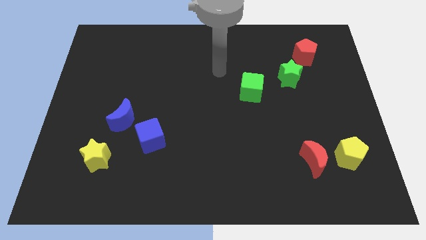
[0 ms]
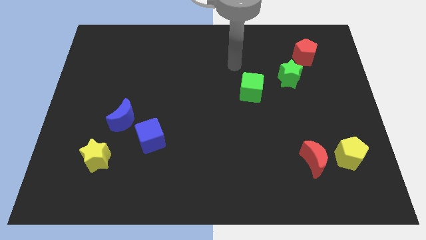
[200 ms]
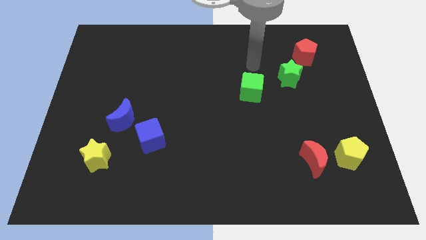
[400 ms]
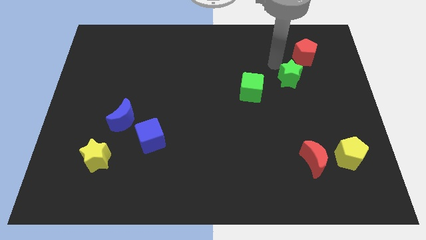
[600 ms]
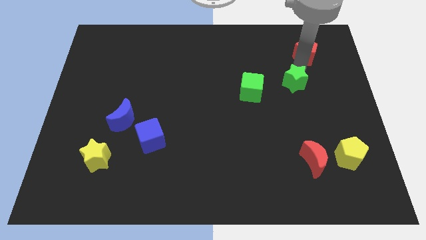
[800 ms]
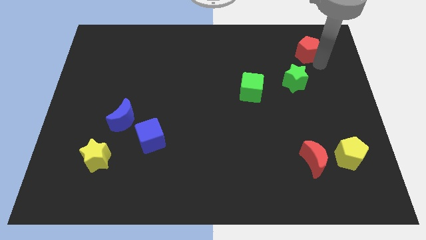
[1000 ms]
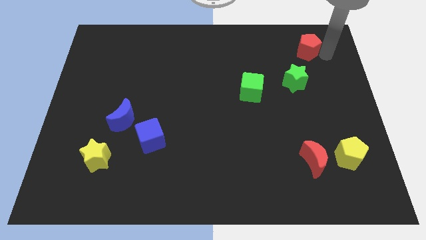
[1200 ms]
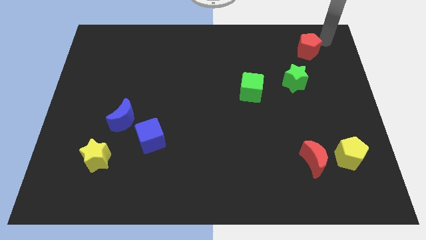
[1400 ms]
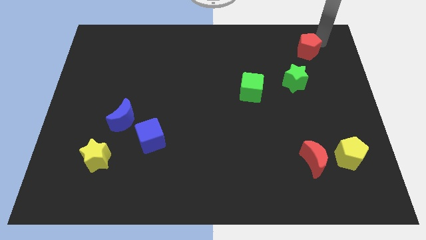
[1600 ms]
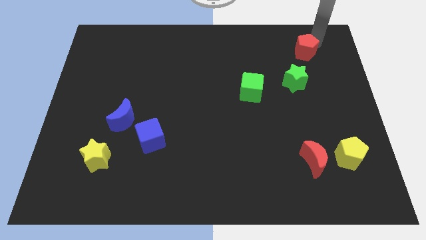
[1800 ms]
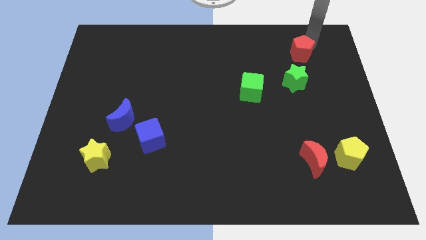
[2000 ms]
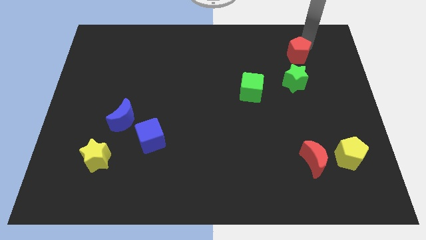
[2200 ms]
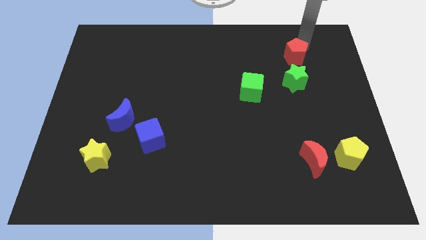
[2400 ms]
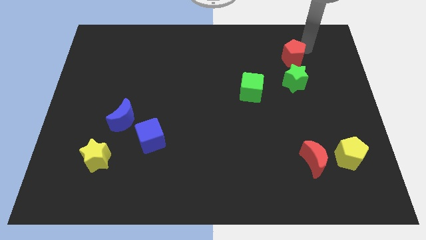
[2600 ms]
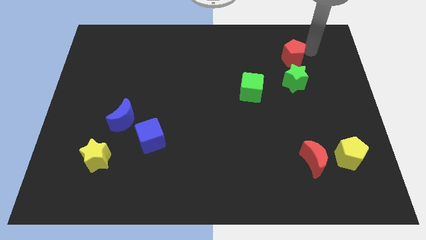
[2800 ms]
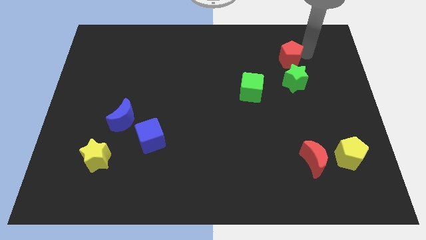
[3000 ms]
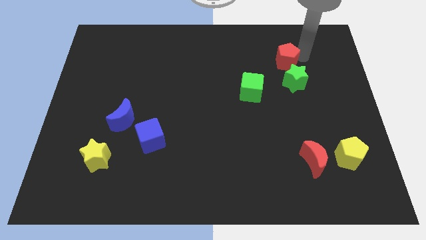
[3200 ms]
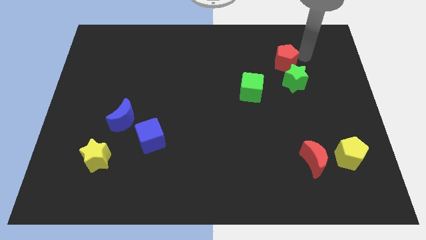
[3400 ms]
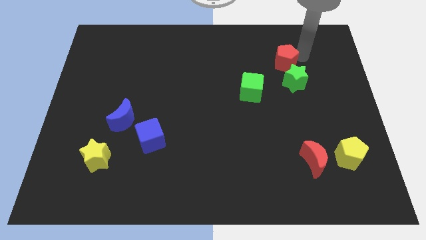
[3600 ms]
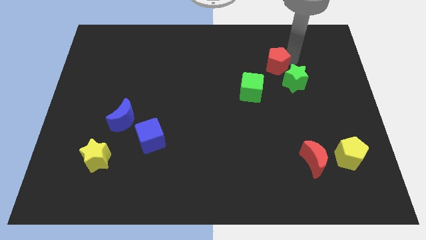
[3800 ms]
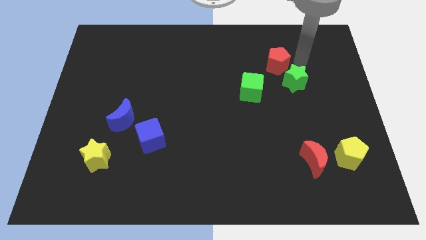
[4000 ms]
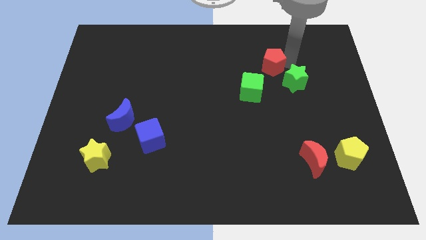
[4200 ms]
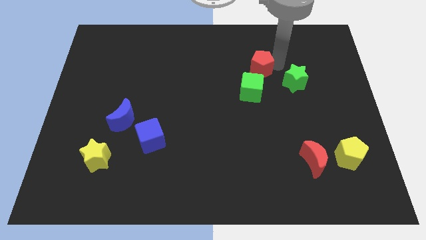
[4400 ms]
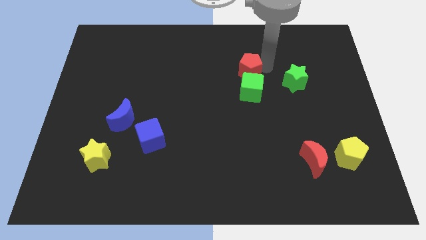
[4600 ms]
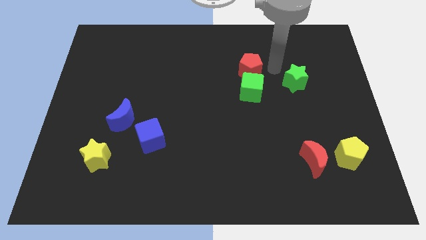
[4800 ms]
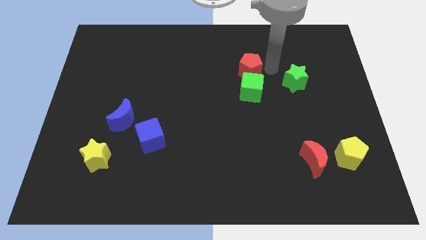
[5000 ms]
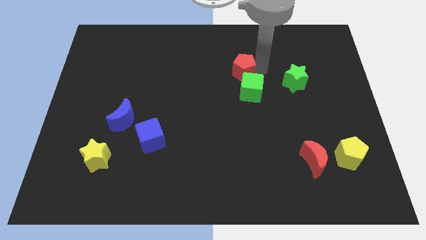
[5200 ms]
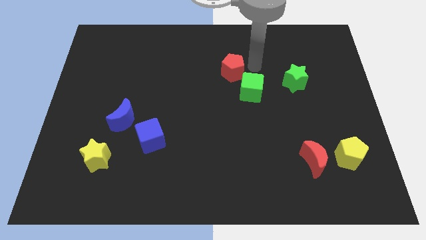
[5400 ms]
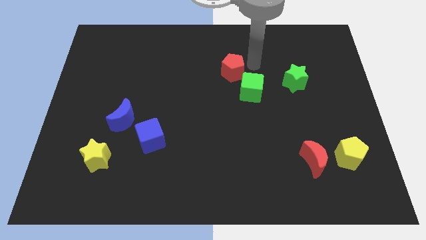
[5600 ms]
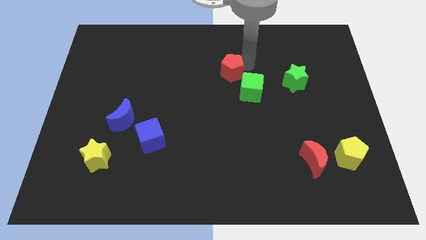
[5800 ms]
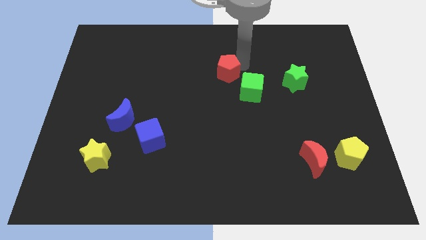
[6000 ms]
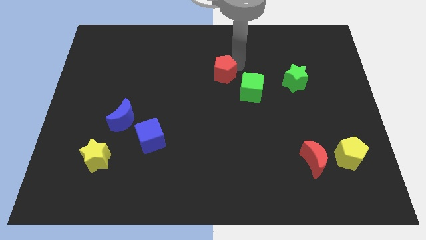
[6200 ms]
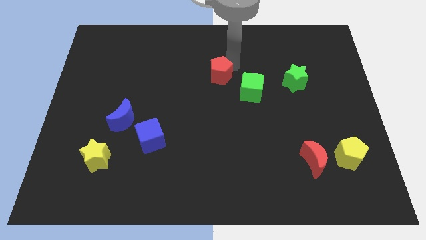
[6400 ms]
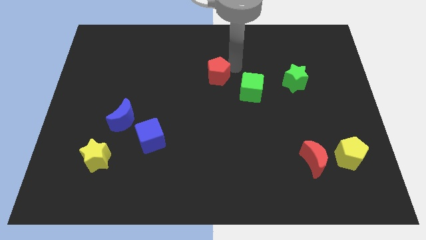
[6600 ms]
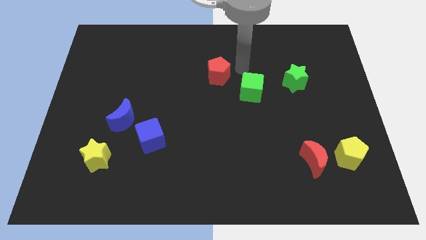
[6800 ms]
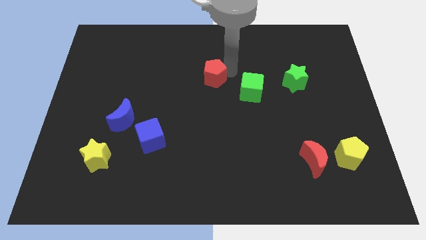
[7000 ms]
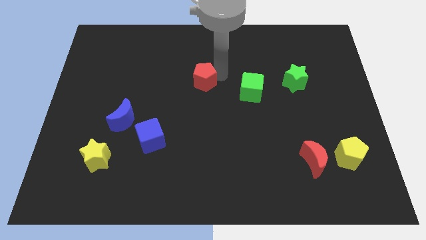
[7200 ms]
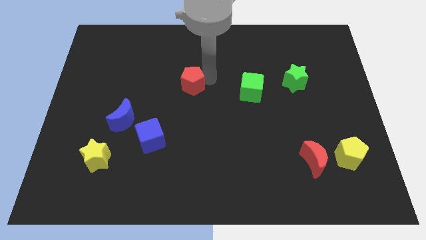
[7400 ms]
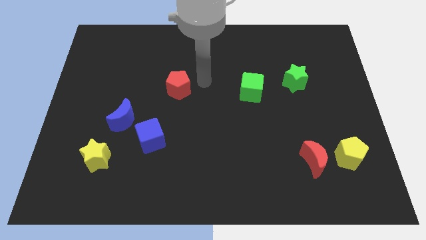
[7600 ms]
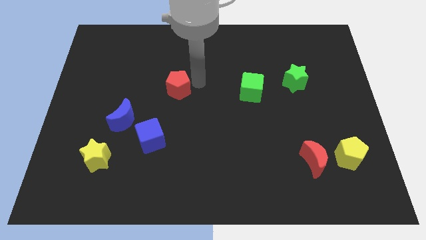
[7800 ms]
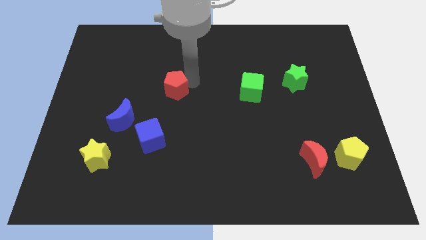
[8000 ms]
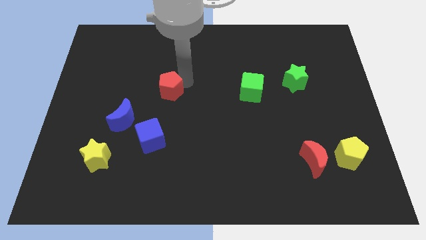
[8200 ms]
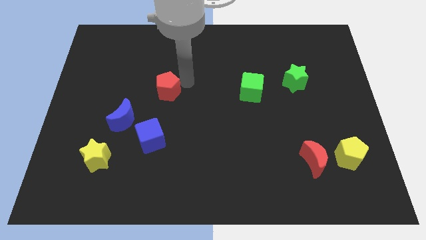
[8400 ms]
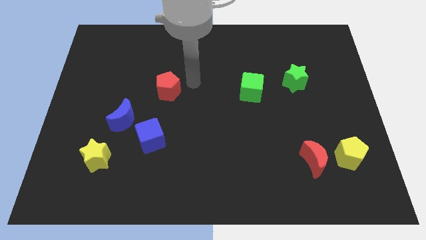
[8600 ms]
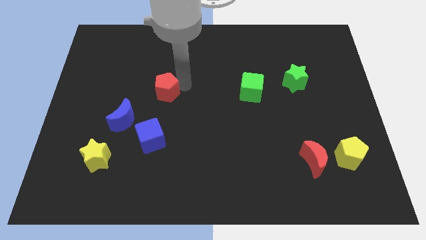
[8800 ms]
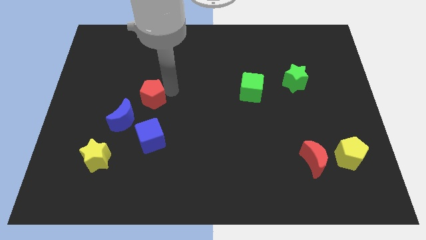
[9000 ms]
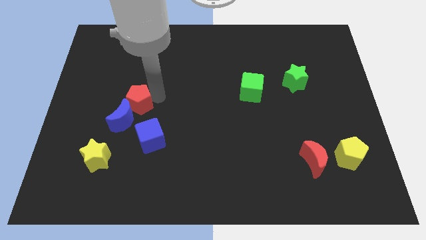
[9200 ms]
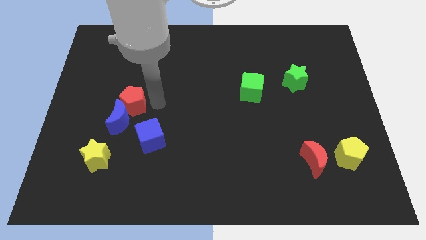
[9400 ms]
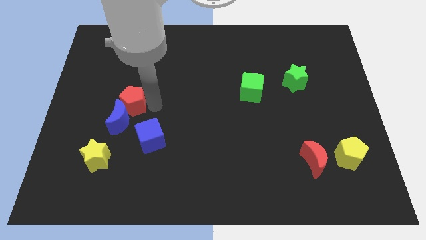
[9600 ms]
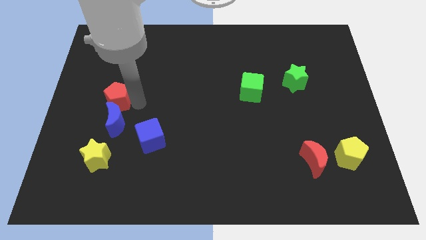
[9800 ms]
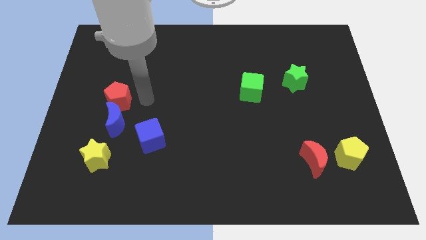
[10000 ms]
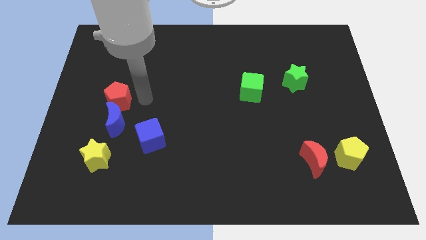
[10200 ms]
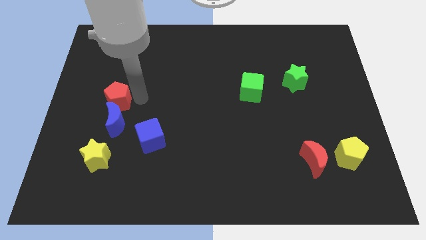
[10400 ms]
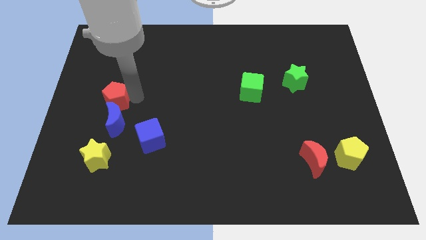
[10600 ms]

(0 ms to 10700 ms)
move the red pentagon to the top of the yellow star

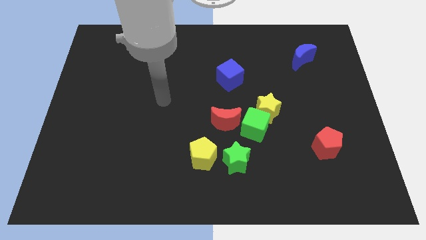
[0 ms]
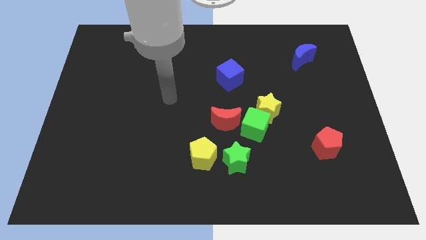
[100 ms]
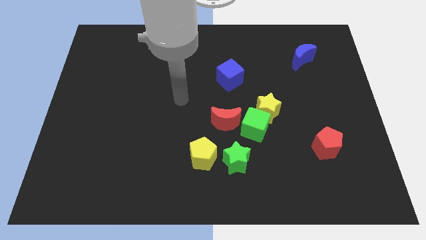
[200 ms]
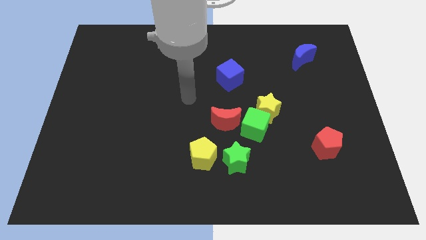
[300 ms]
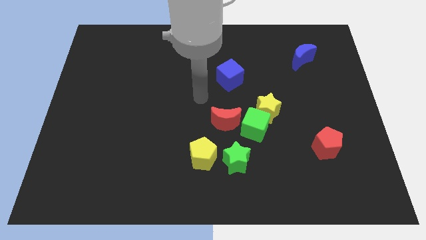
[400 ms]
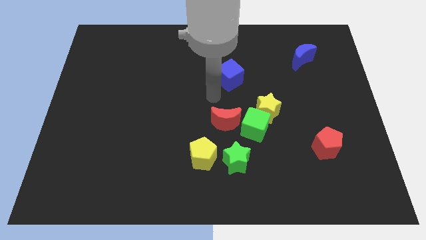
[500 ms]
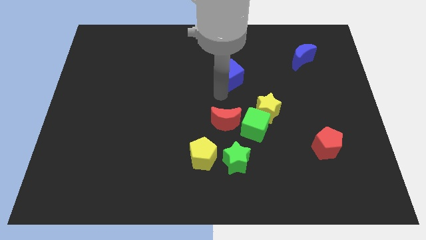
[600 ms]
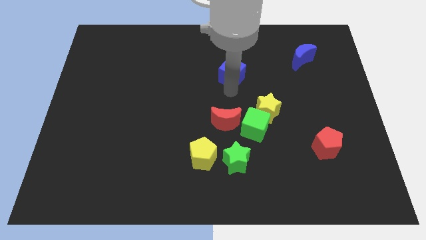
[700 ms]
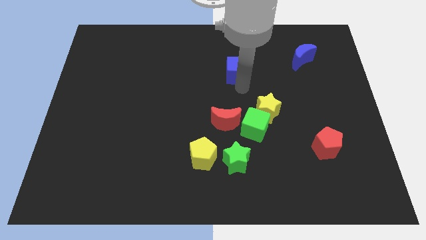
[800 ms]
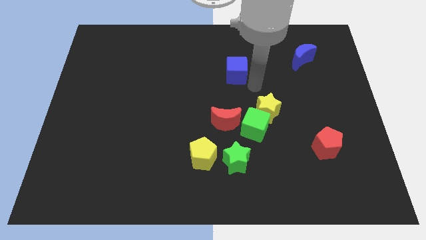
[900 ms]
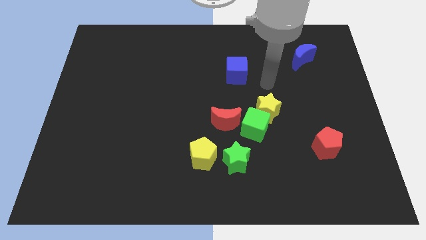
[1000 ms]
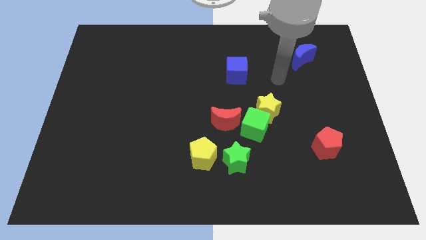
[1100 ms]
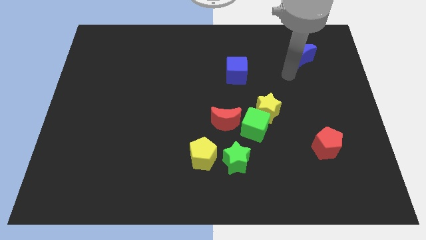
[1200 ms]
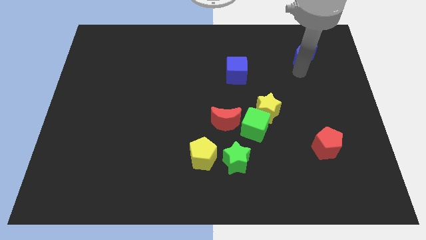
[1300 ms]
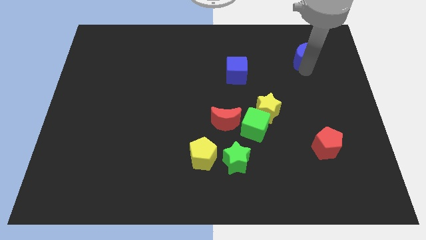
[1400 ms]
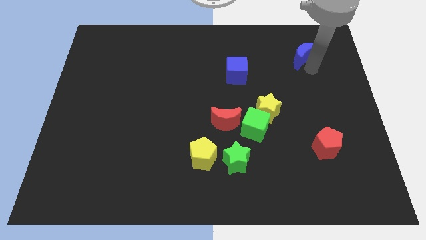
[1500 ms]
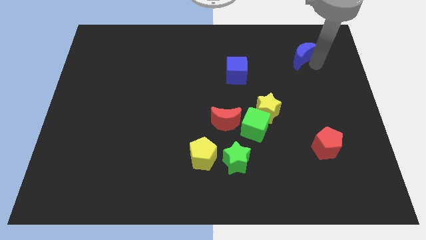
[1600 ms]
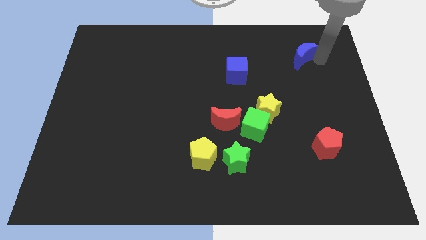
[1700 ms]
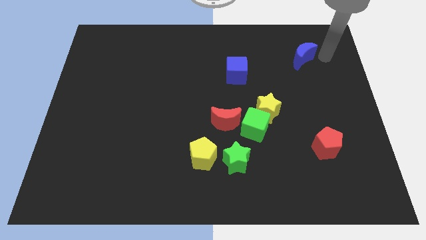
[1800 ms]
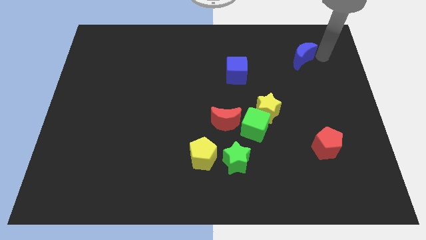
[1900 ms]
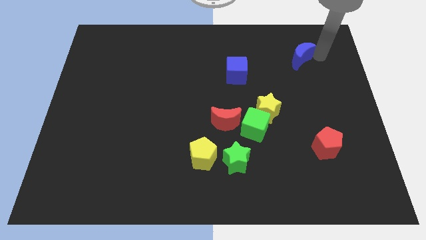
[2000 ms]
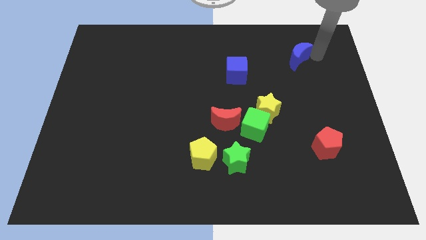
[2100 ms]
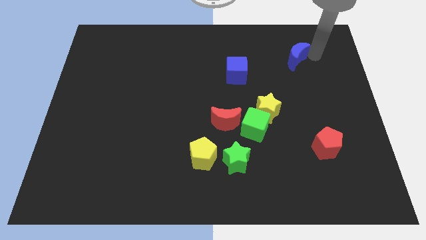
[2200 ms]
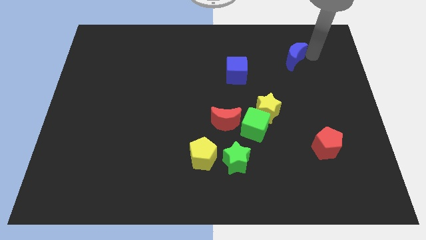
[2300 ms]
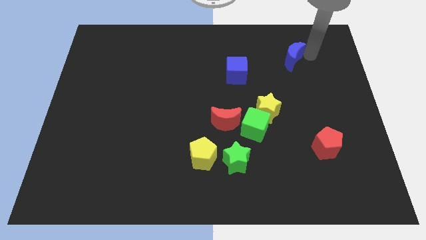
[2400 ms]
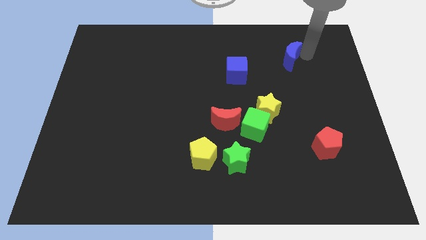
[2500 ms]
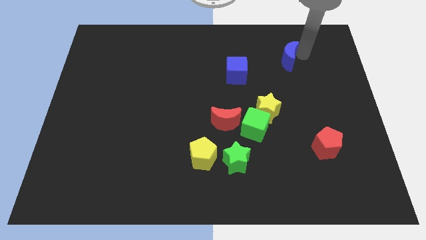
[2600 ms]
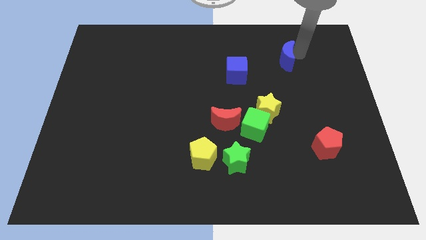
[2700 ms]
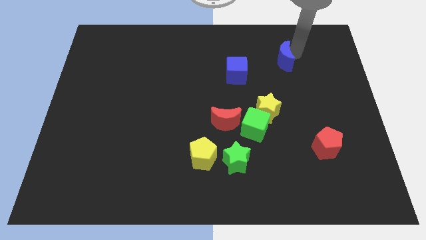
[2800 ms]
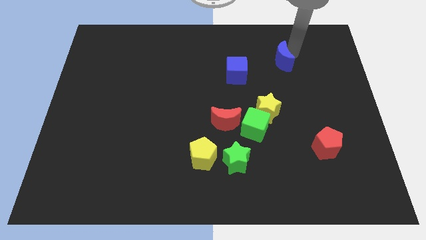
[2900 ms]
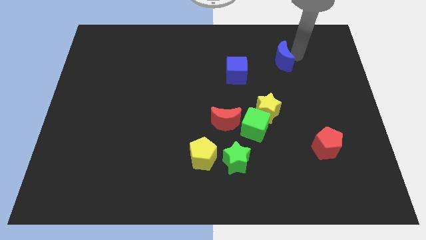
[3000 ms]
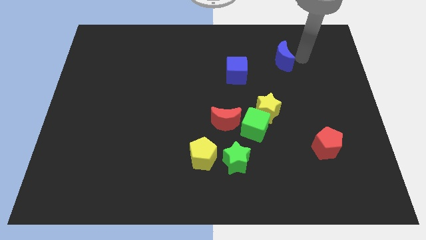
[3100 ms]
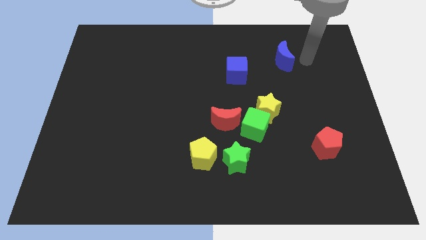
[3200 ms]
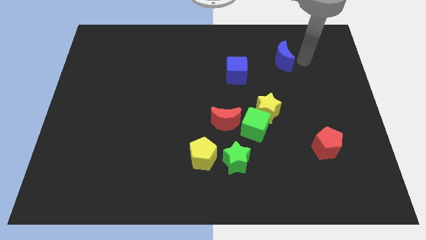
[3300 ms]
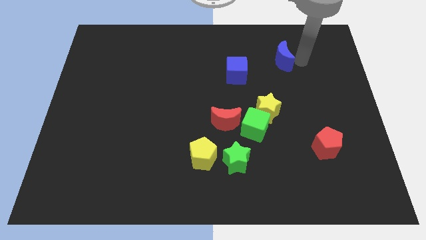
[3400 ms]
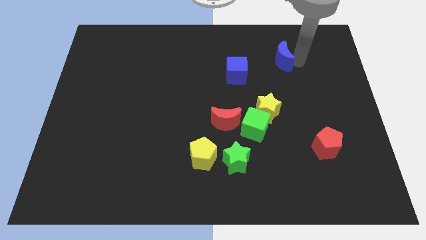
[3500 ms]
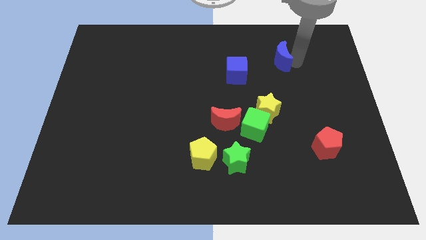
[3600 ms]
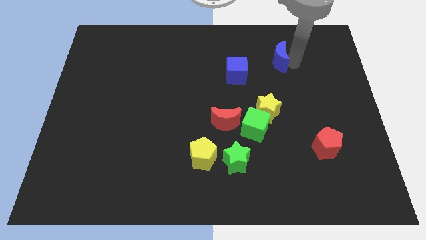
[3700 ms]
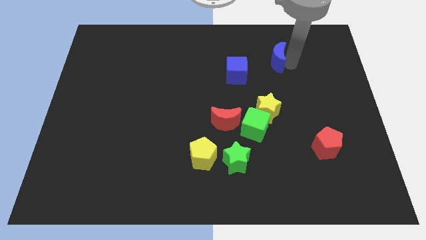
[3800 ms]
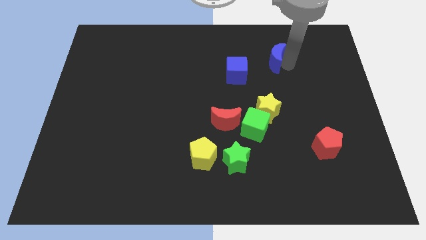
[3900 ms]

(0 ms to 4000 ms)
put the blue moon to the top right of the blue cube
